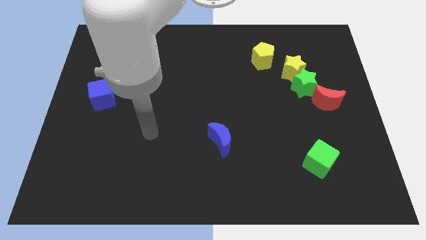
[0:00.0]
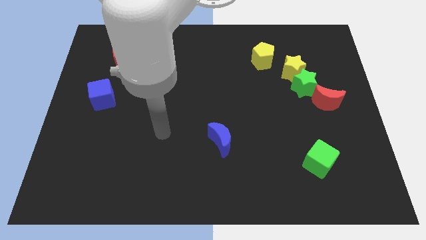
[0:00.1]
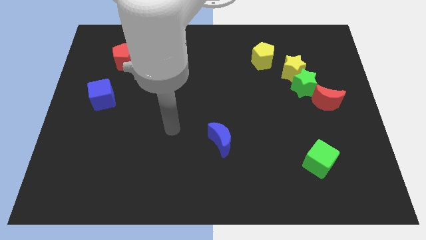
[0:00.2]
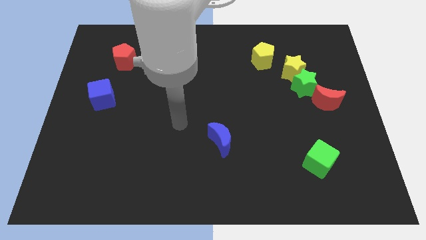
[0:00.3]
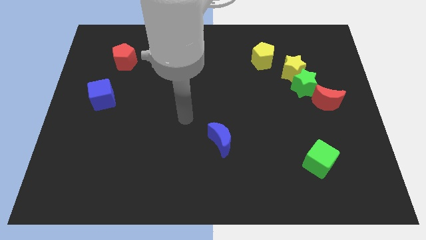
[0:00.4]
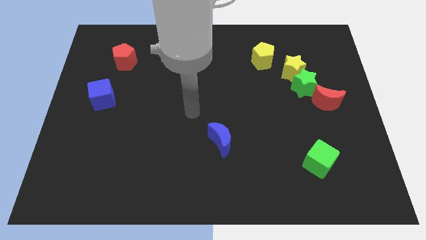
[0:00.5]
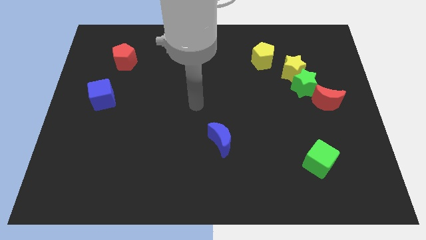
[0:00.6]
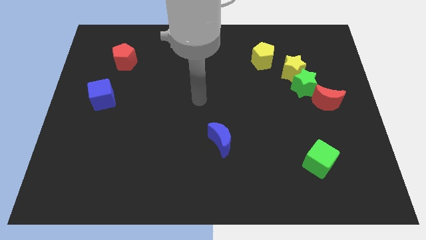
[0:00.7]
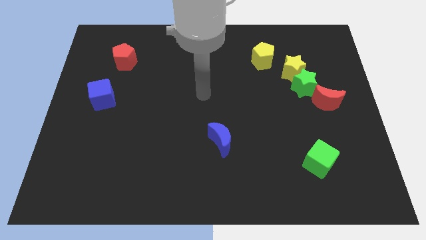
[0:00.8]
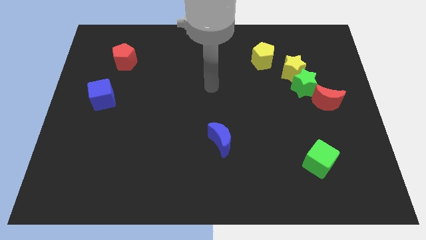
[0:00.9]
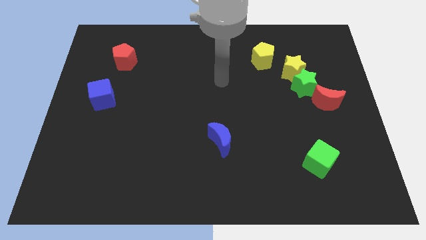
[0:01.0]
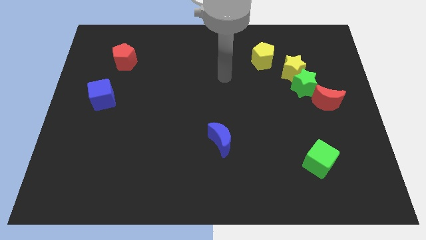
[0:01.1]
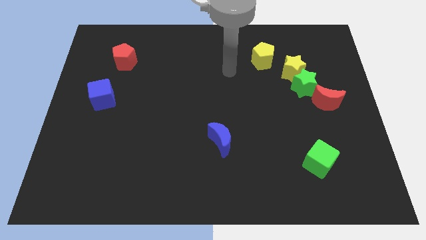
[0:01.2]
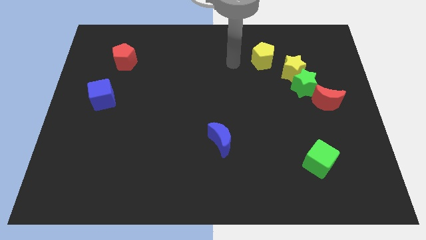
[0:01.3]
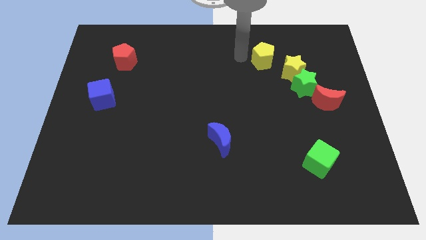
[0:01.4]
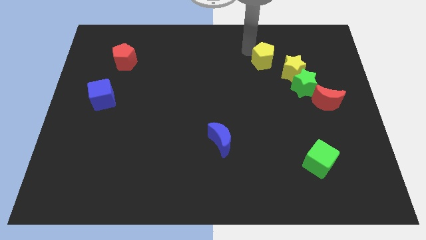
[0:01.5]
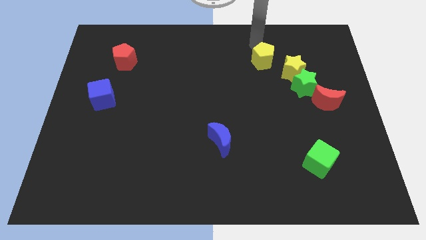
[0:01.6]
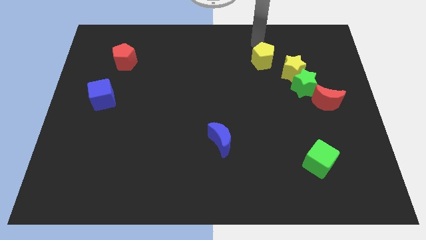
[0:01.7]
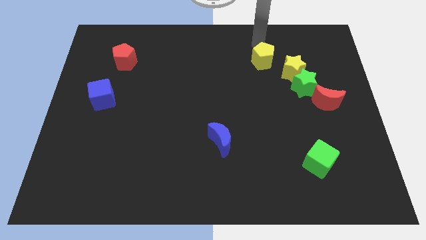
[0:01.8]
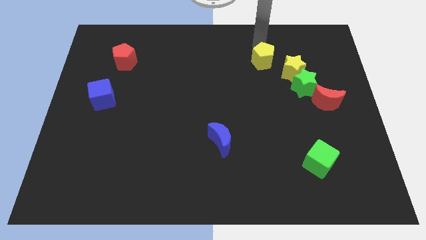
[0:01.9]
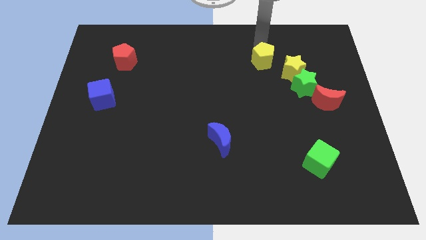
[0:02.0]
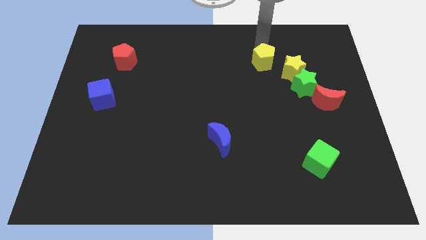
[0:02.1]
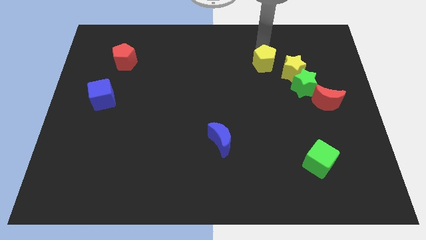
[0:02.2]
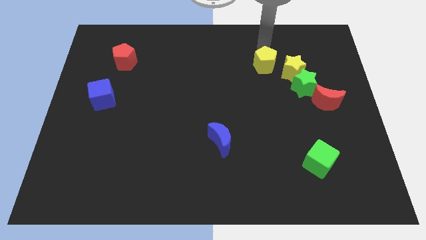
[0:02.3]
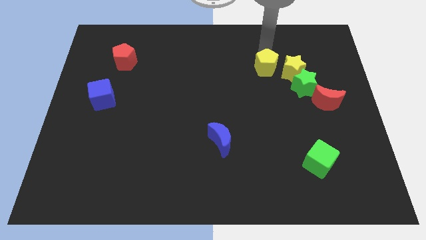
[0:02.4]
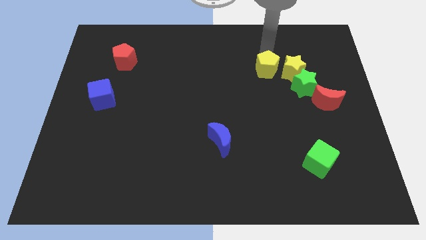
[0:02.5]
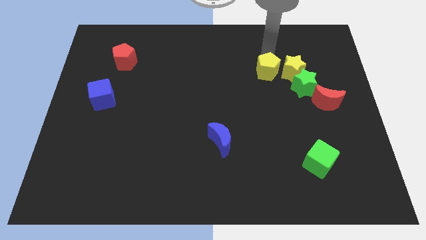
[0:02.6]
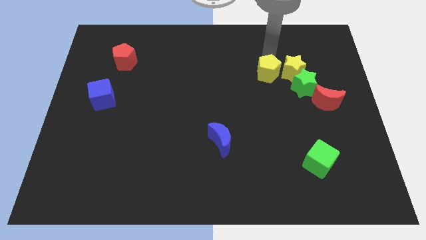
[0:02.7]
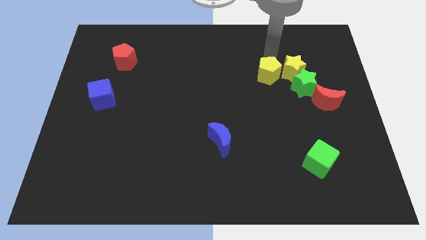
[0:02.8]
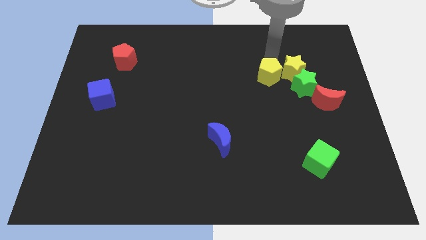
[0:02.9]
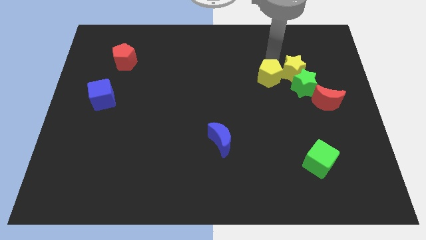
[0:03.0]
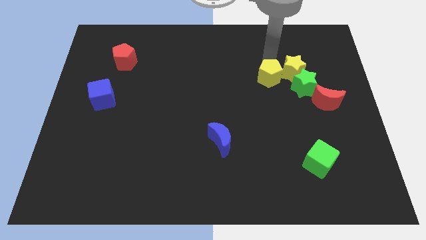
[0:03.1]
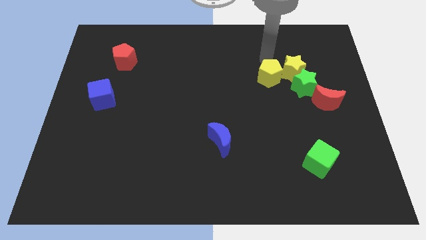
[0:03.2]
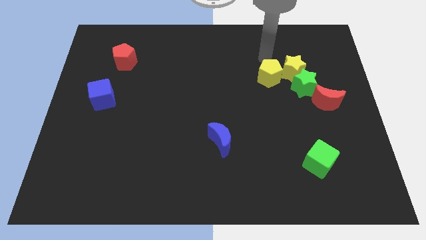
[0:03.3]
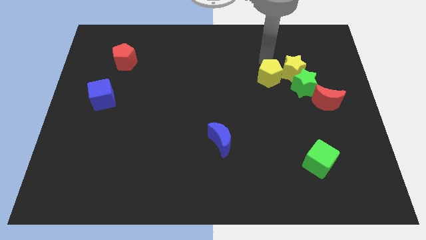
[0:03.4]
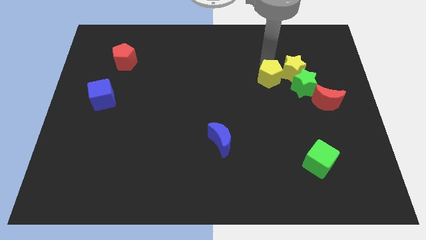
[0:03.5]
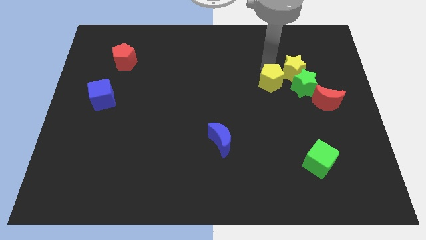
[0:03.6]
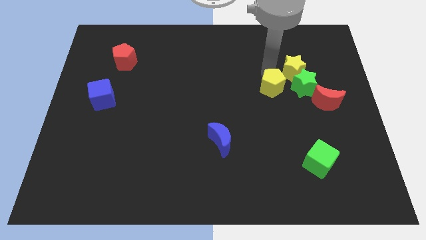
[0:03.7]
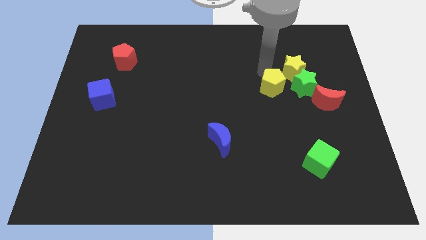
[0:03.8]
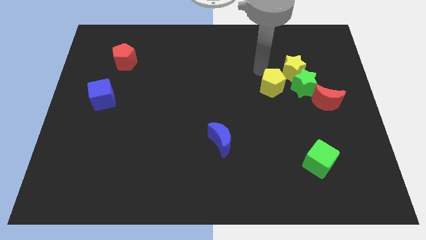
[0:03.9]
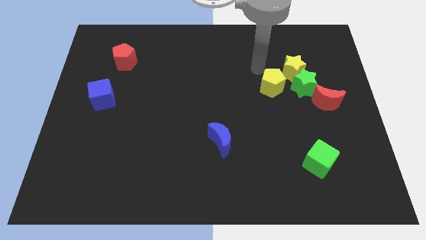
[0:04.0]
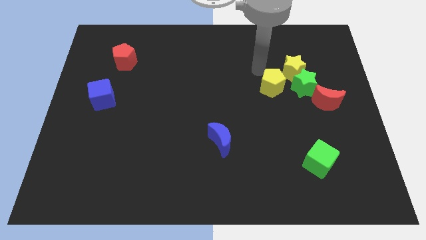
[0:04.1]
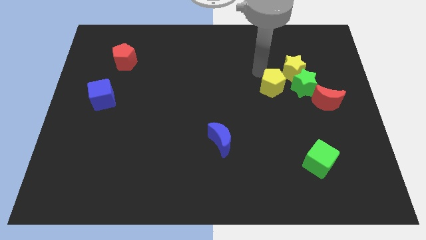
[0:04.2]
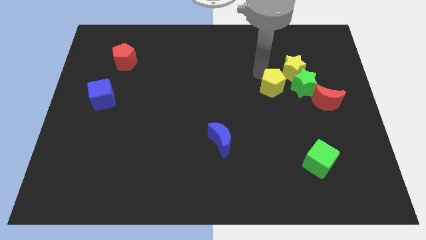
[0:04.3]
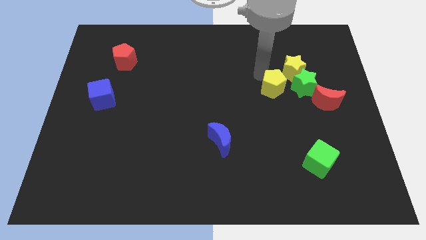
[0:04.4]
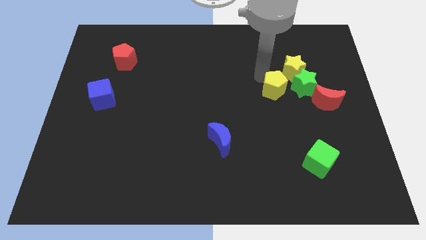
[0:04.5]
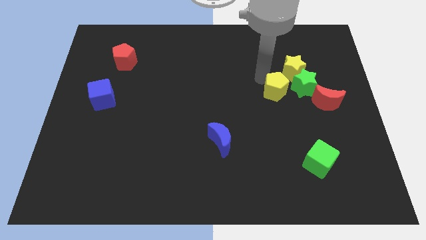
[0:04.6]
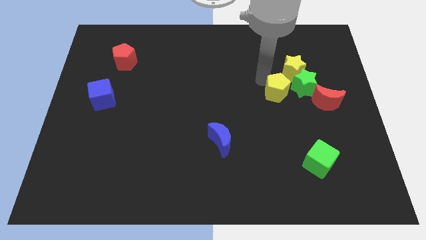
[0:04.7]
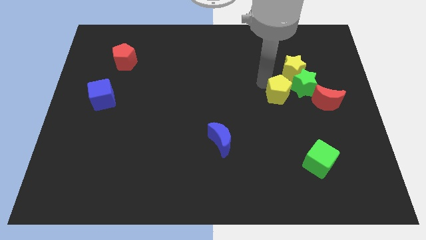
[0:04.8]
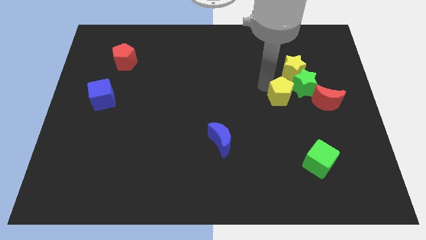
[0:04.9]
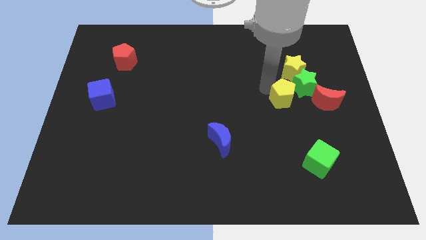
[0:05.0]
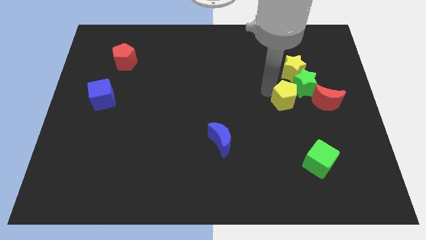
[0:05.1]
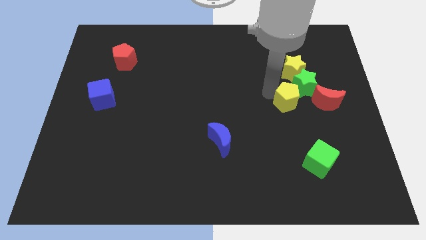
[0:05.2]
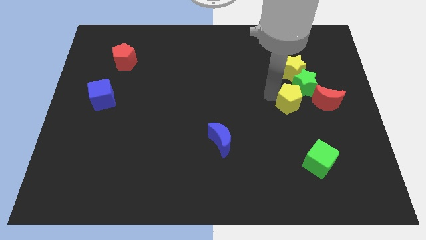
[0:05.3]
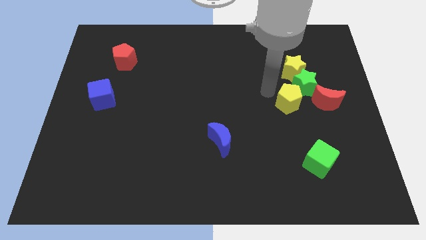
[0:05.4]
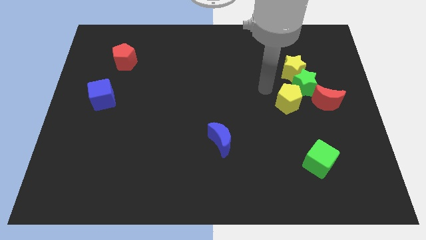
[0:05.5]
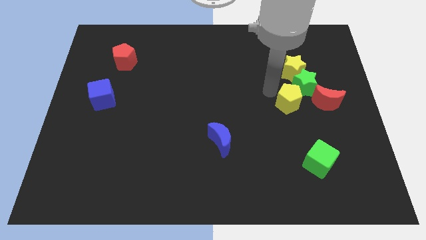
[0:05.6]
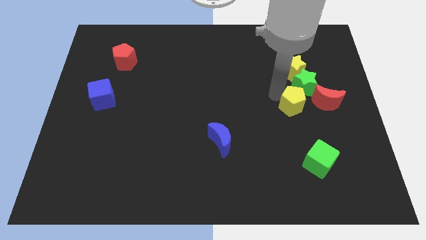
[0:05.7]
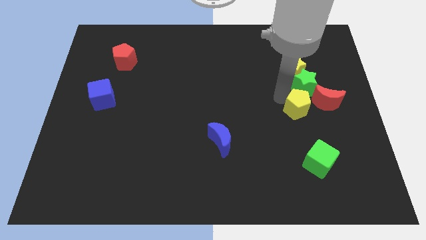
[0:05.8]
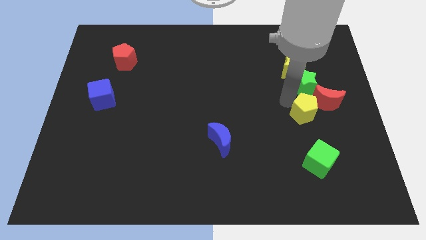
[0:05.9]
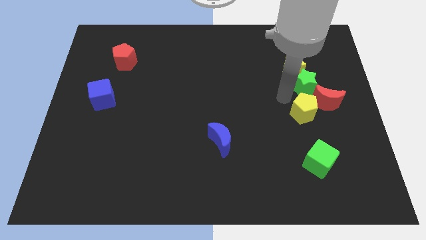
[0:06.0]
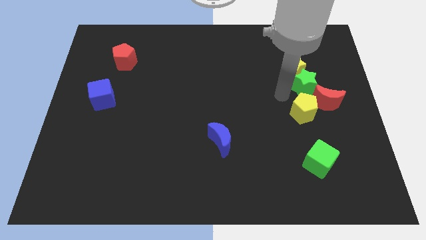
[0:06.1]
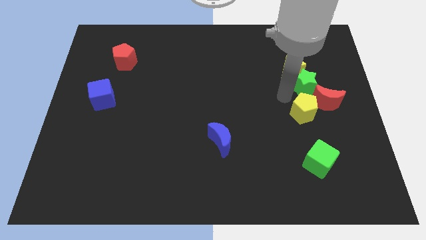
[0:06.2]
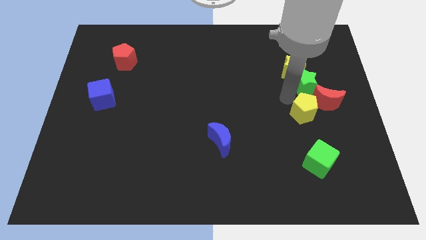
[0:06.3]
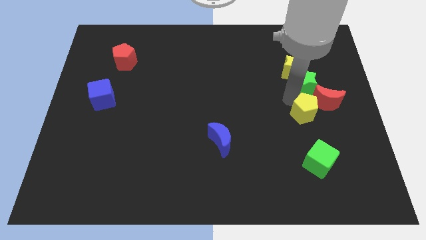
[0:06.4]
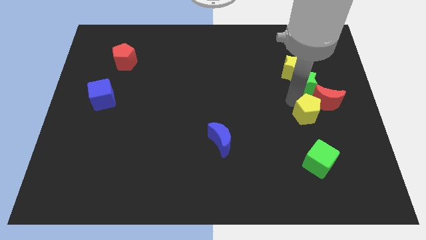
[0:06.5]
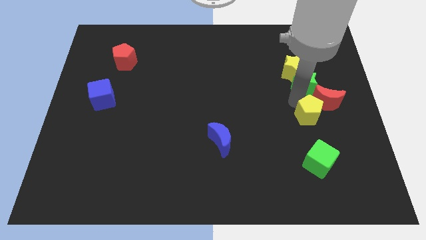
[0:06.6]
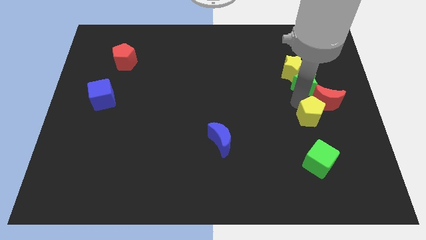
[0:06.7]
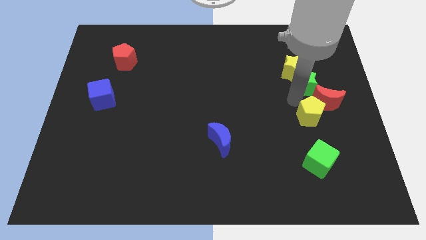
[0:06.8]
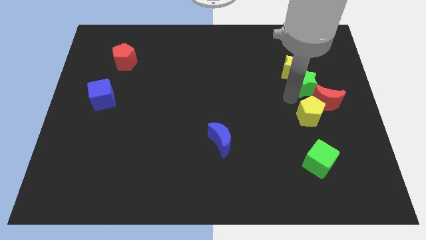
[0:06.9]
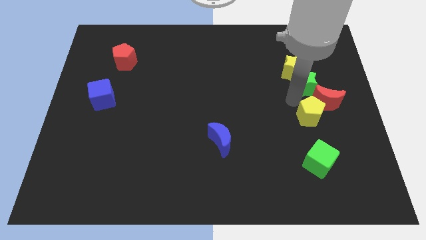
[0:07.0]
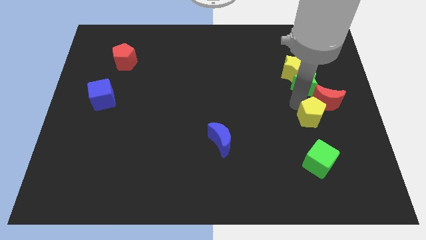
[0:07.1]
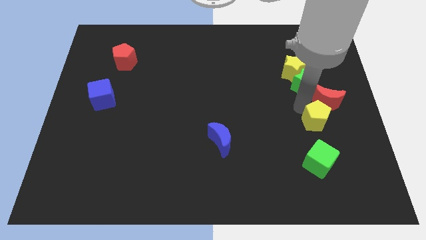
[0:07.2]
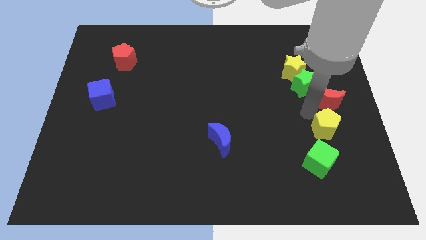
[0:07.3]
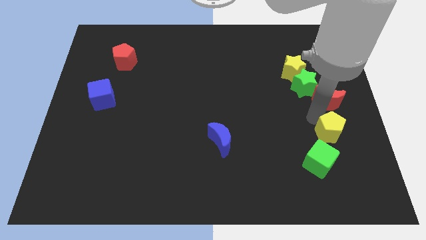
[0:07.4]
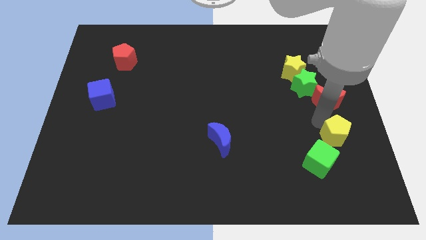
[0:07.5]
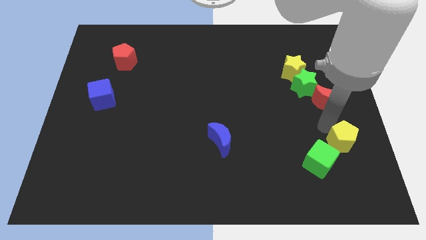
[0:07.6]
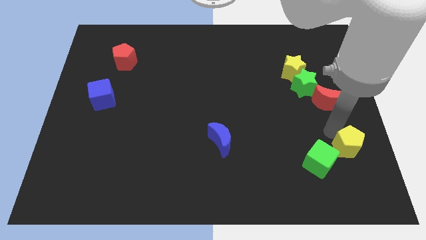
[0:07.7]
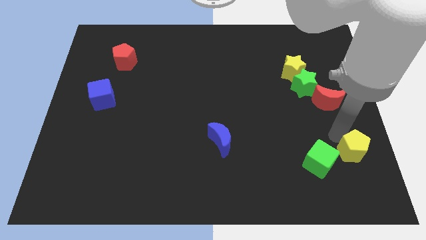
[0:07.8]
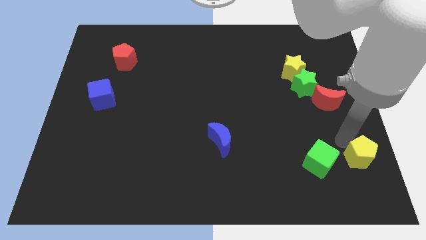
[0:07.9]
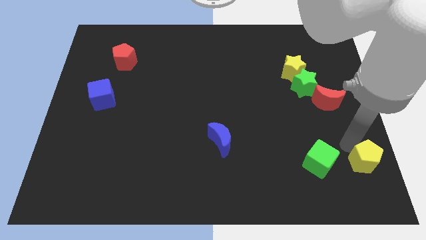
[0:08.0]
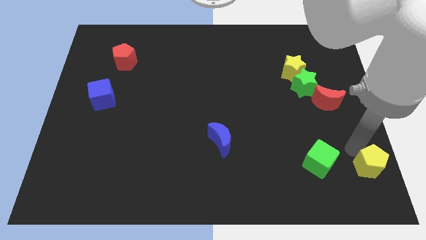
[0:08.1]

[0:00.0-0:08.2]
put the yellow pentagon to the bottom right of the board
